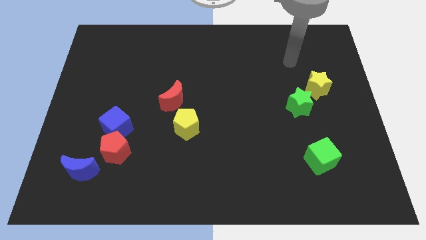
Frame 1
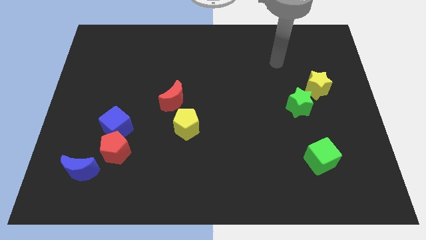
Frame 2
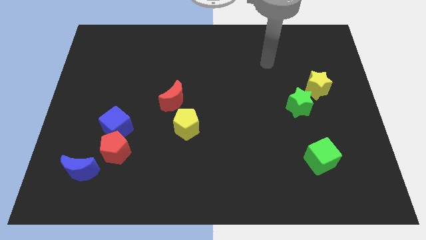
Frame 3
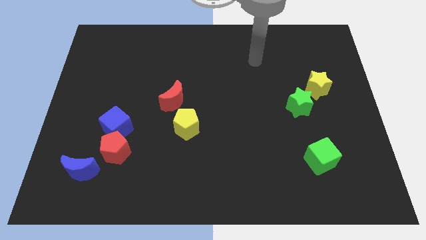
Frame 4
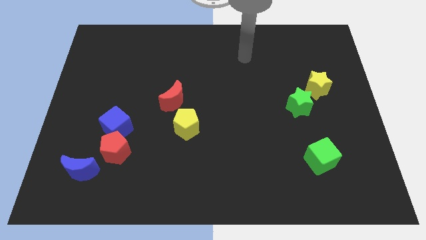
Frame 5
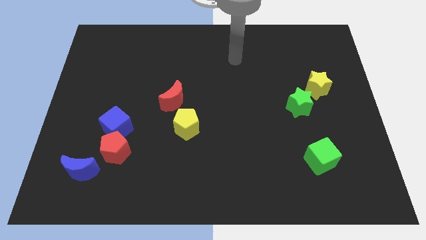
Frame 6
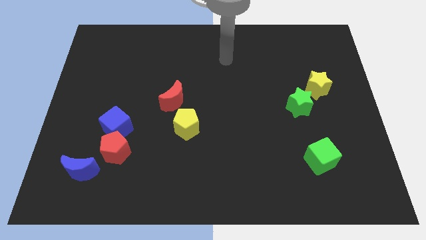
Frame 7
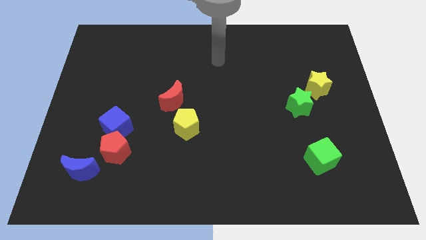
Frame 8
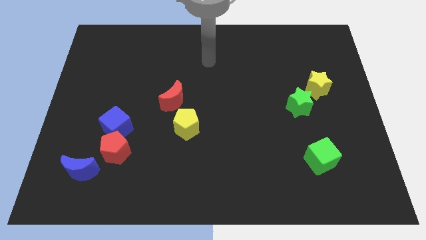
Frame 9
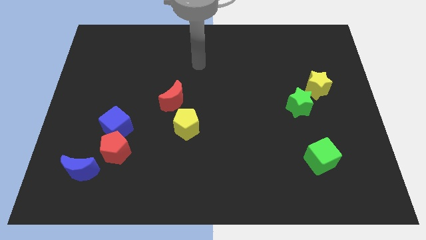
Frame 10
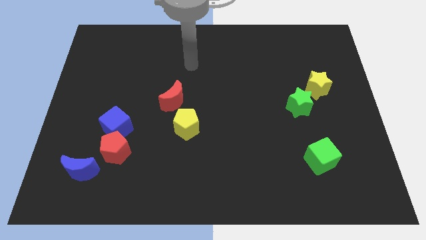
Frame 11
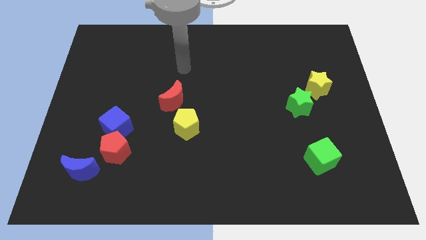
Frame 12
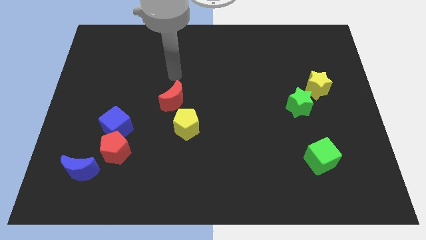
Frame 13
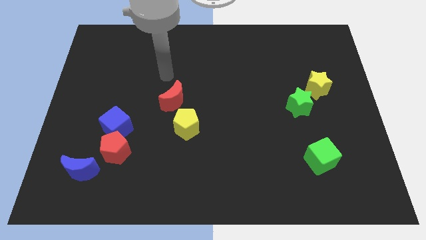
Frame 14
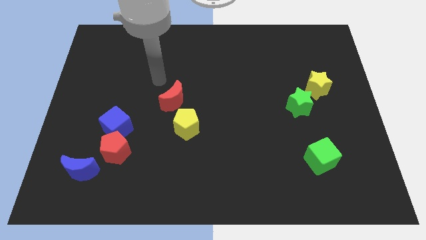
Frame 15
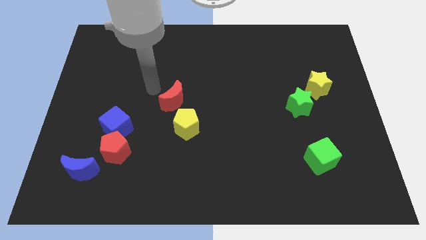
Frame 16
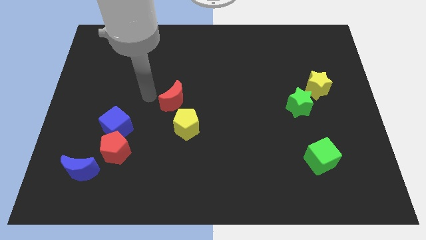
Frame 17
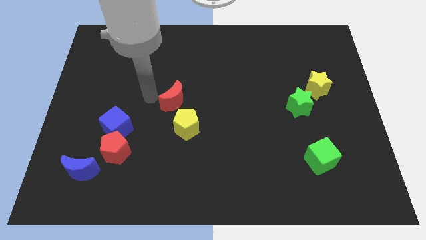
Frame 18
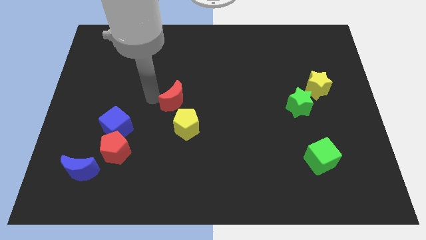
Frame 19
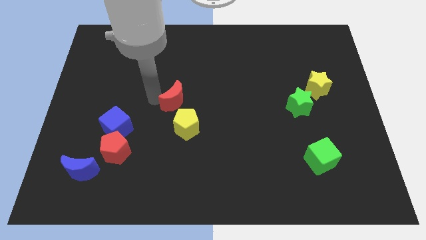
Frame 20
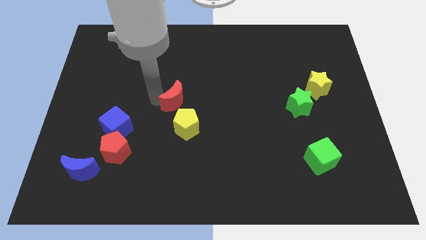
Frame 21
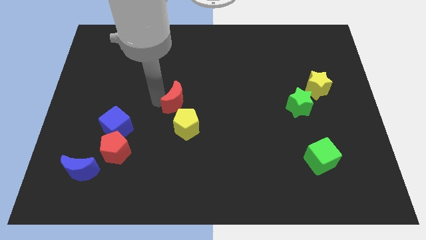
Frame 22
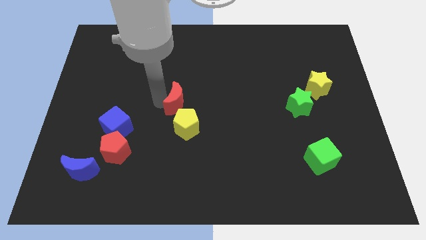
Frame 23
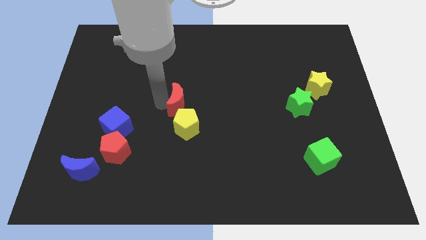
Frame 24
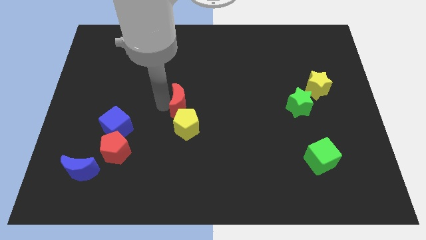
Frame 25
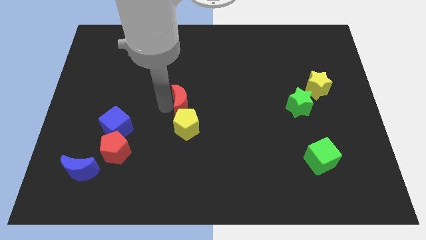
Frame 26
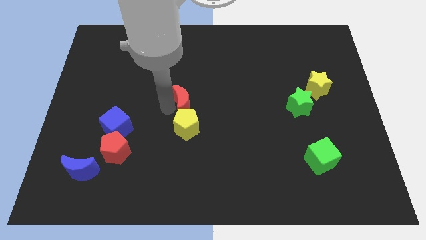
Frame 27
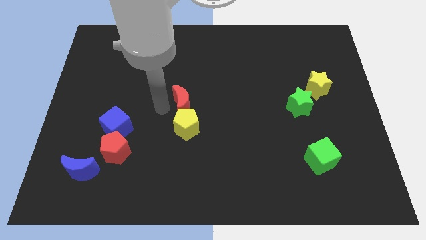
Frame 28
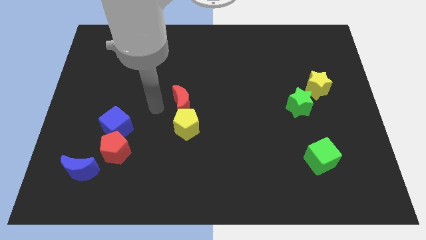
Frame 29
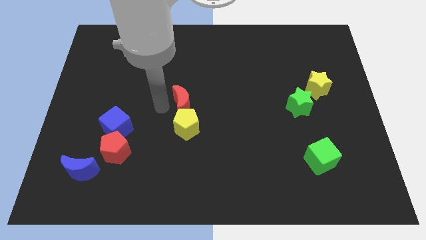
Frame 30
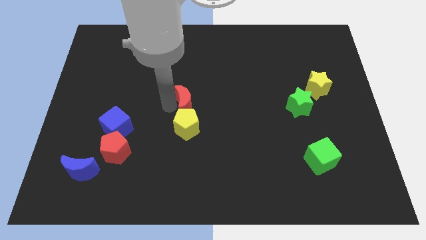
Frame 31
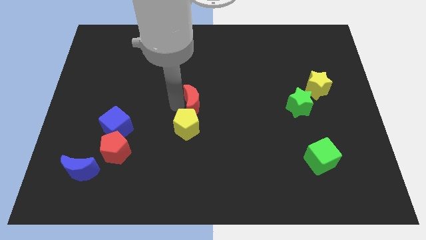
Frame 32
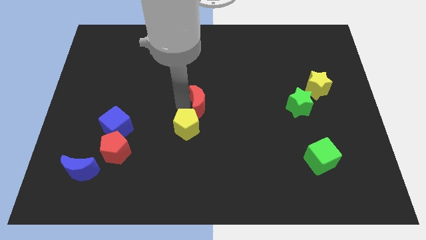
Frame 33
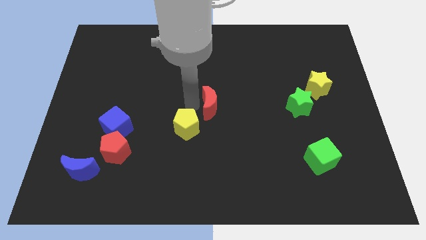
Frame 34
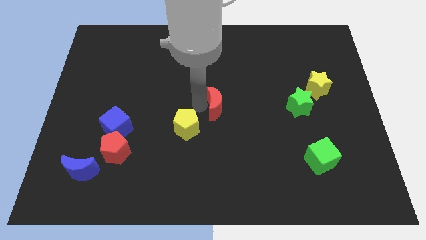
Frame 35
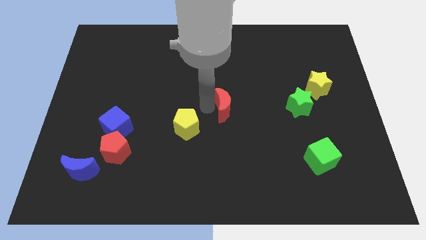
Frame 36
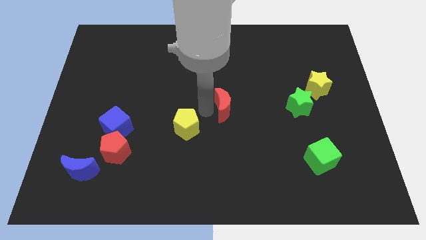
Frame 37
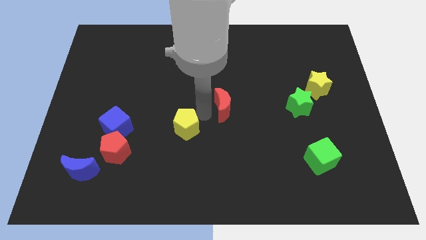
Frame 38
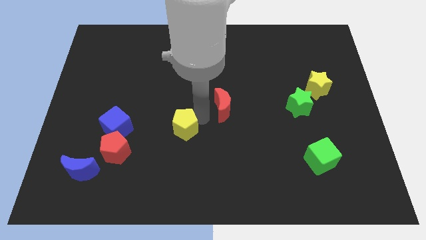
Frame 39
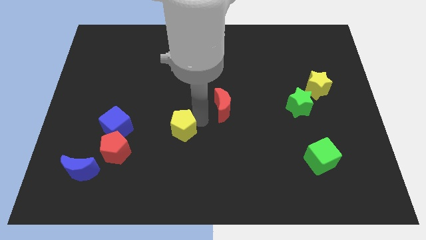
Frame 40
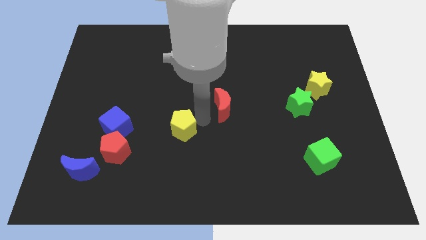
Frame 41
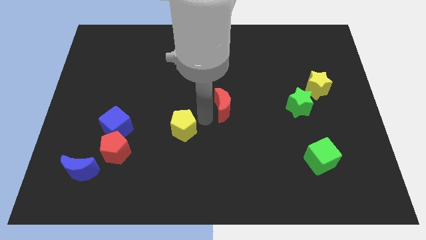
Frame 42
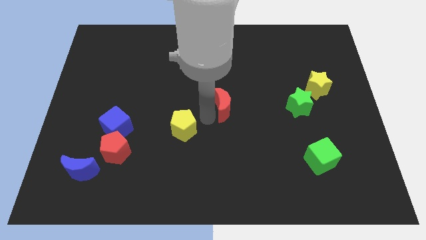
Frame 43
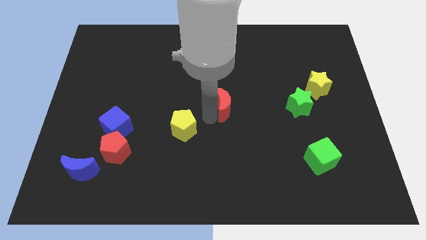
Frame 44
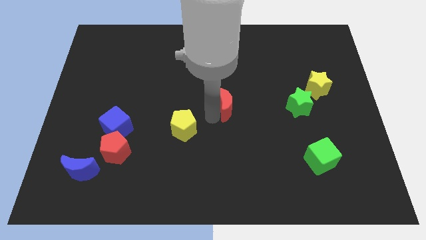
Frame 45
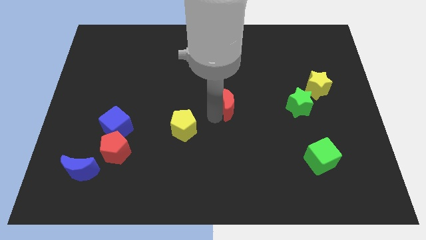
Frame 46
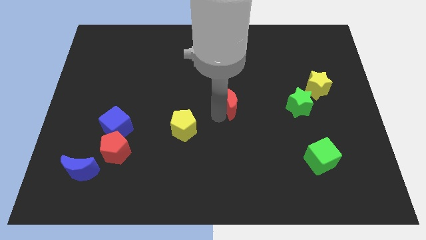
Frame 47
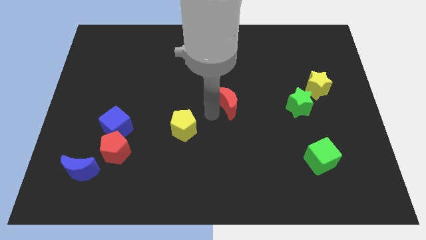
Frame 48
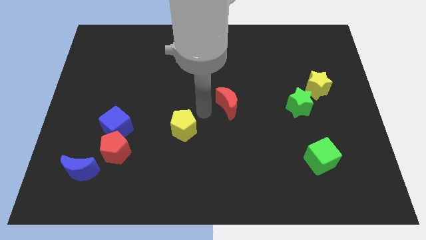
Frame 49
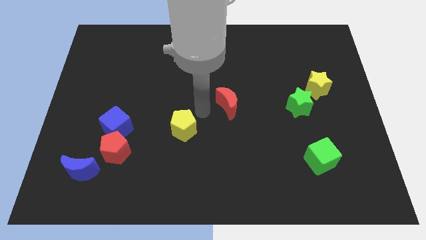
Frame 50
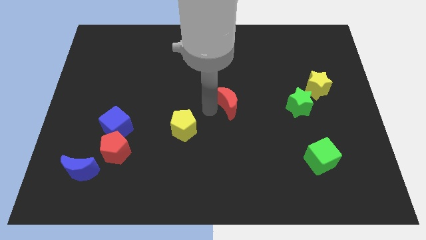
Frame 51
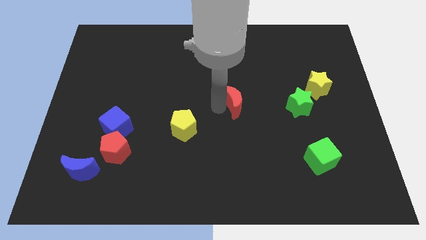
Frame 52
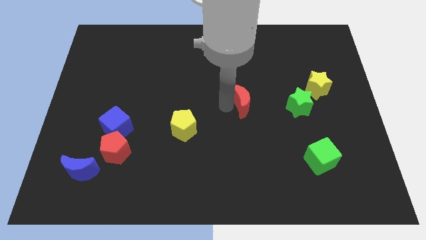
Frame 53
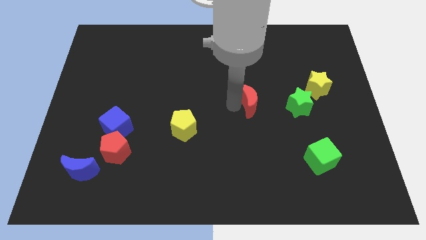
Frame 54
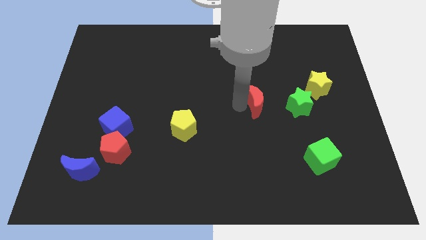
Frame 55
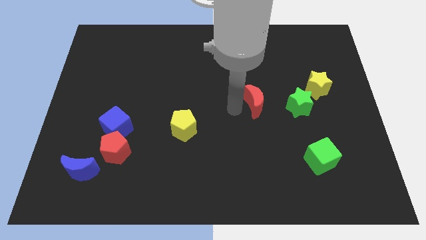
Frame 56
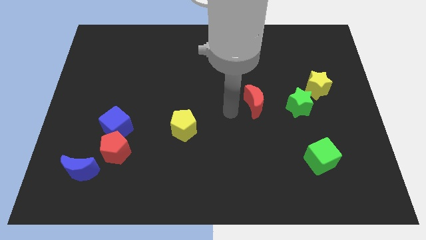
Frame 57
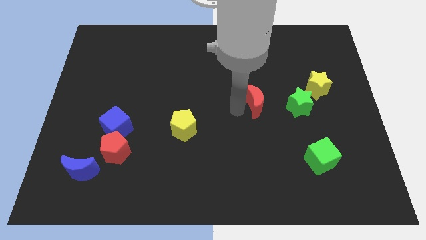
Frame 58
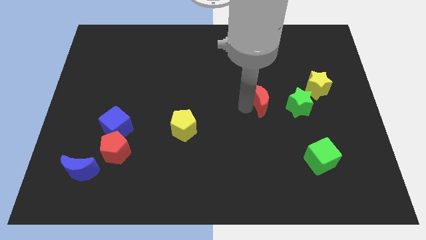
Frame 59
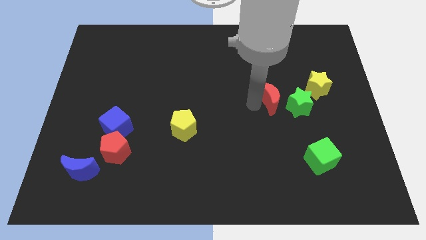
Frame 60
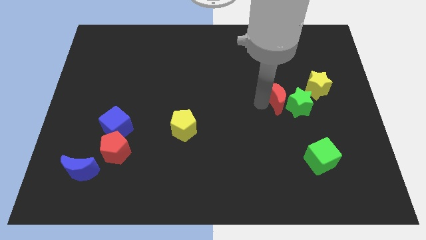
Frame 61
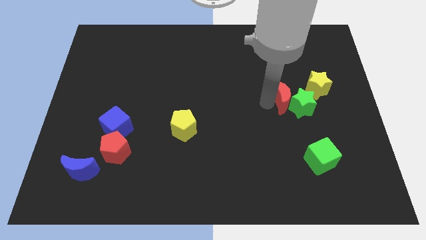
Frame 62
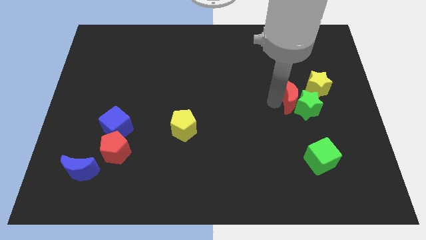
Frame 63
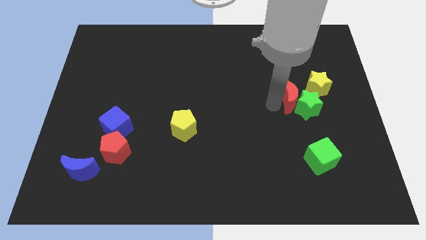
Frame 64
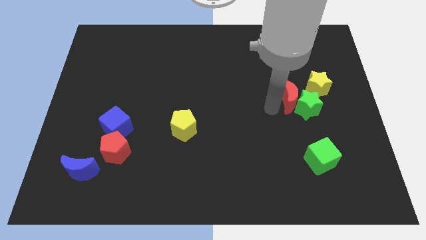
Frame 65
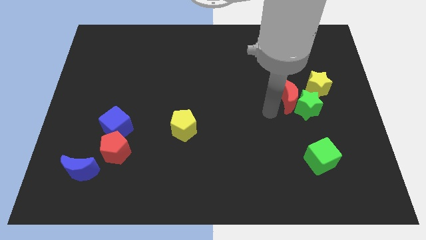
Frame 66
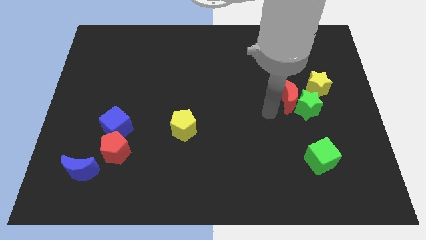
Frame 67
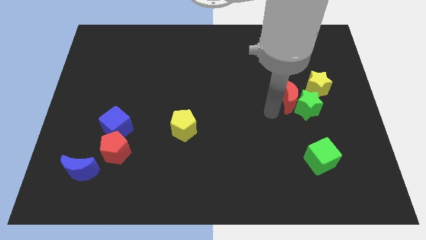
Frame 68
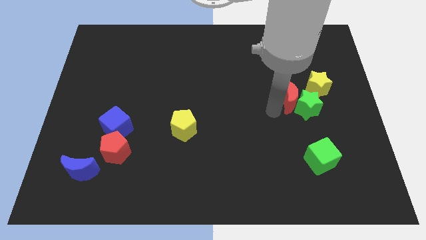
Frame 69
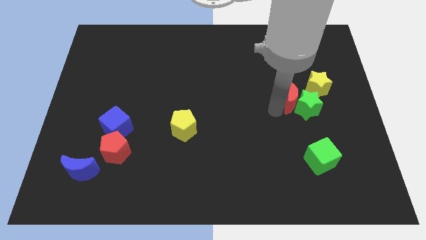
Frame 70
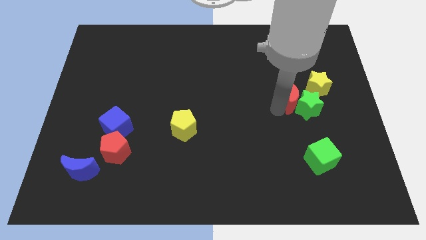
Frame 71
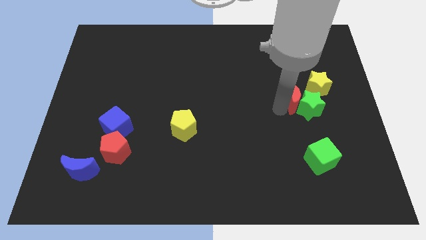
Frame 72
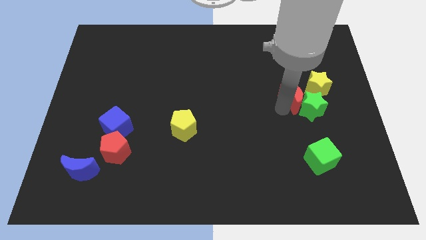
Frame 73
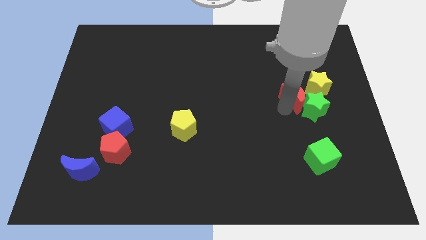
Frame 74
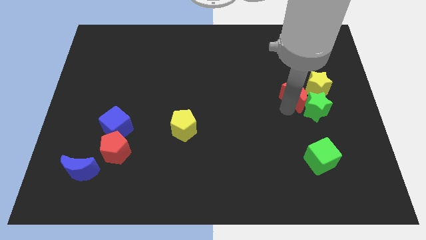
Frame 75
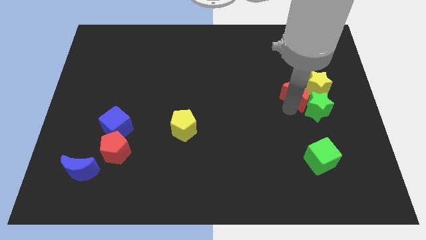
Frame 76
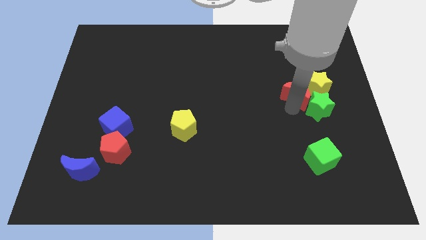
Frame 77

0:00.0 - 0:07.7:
put the red moon to the yellow star

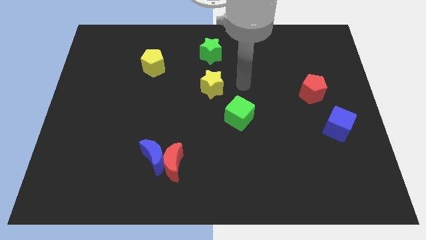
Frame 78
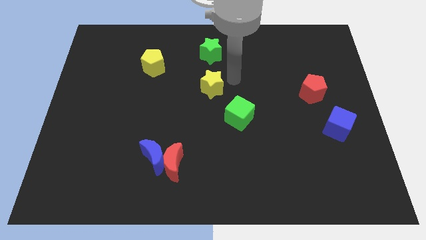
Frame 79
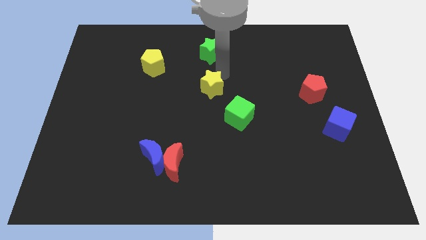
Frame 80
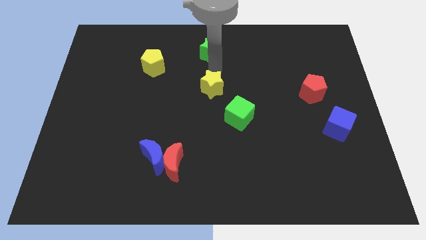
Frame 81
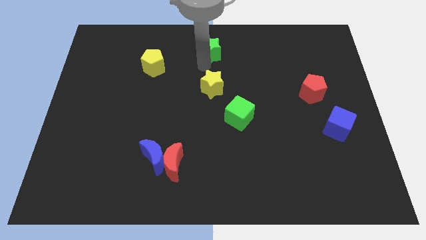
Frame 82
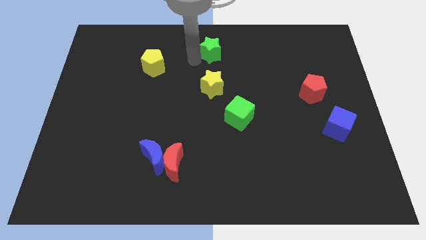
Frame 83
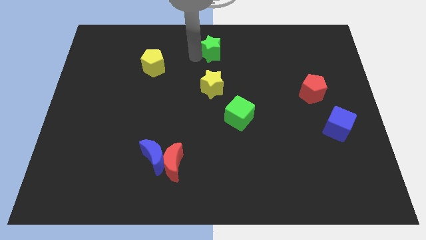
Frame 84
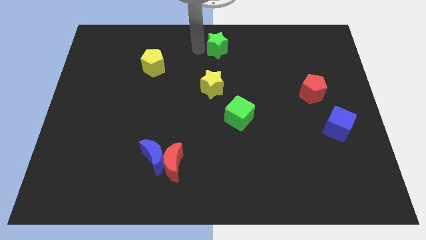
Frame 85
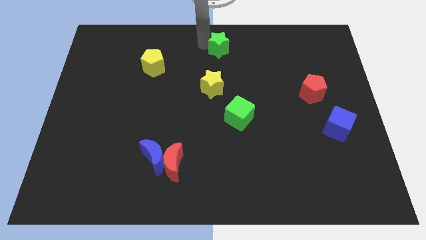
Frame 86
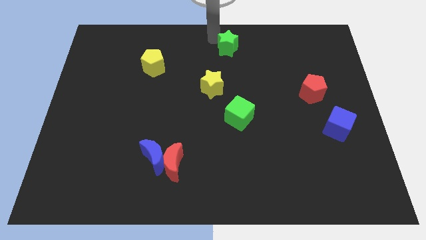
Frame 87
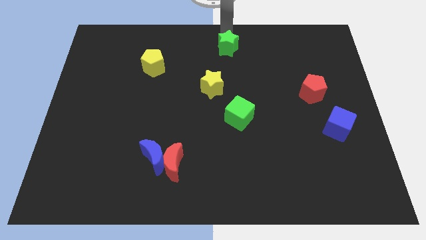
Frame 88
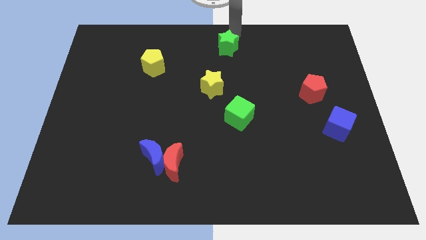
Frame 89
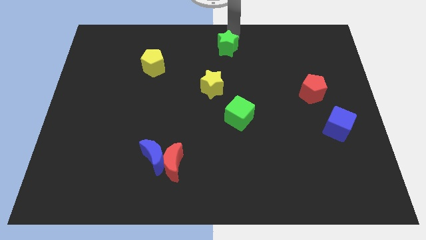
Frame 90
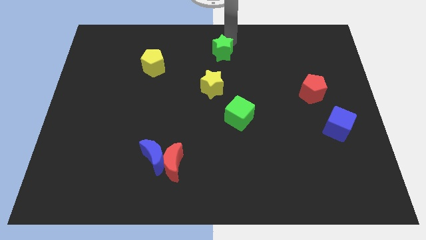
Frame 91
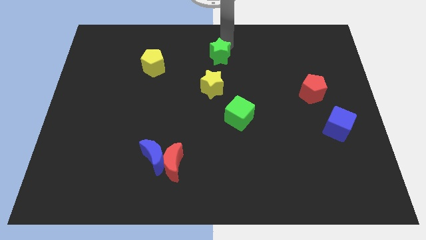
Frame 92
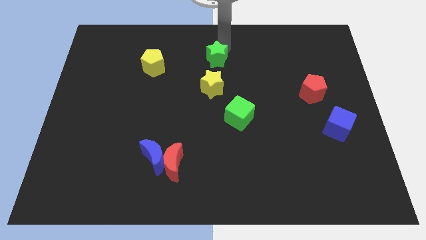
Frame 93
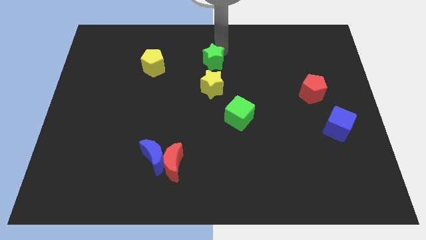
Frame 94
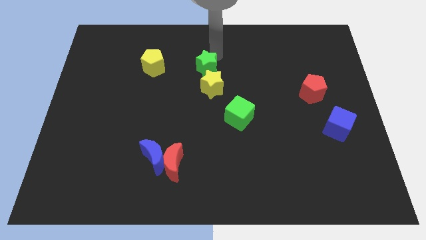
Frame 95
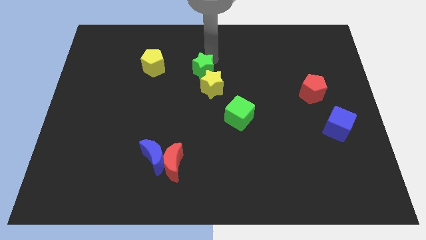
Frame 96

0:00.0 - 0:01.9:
push the green star close to the yellow star
